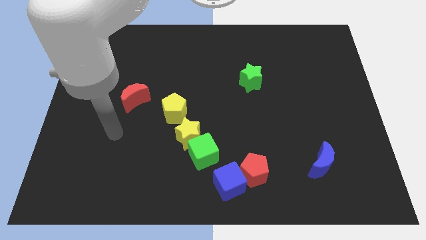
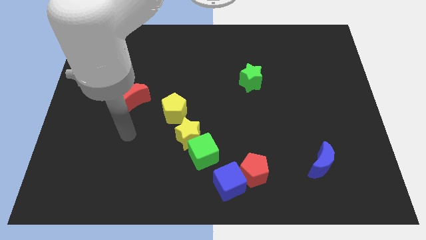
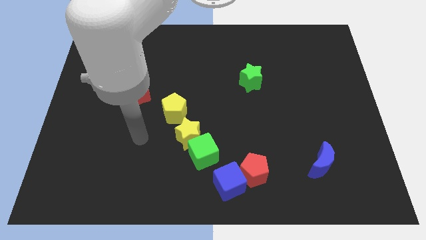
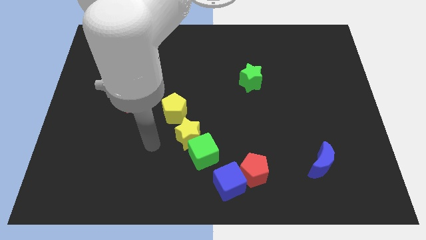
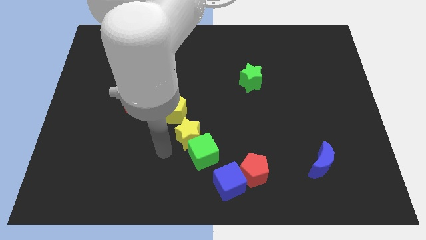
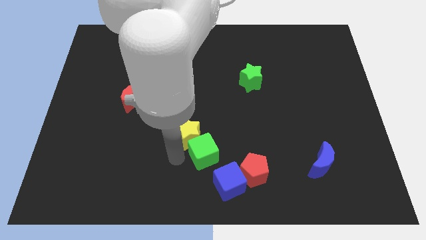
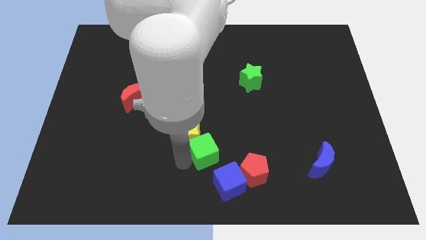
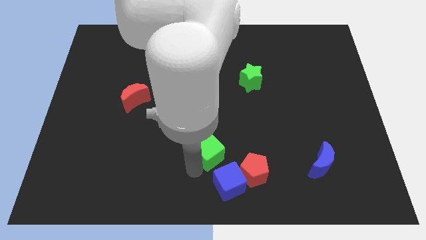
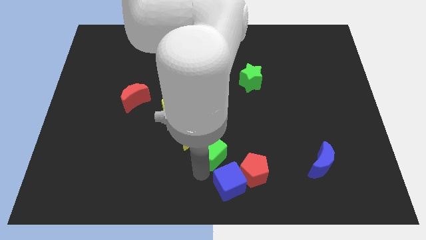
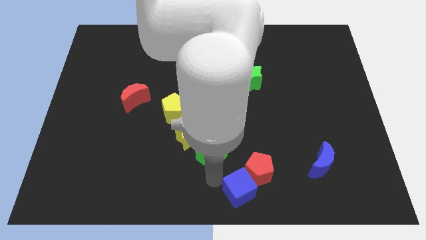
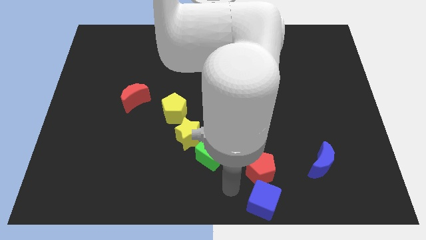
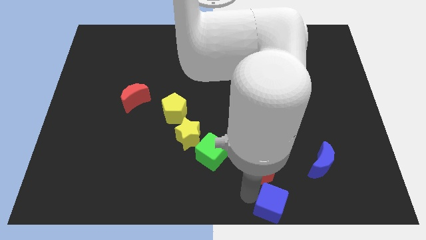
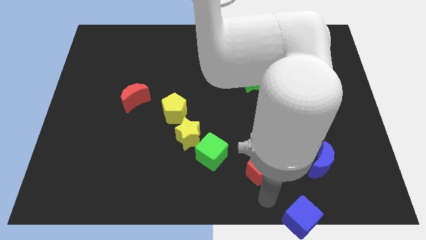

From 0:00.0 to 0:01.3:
pull the red pentagon apart from the blue cube

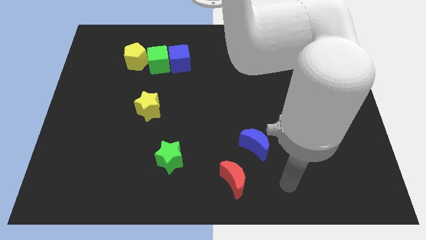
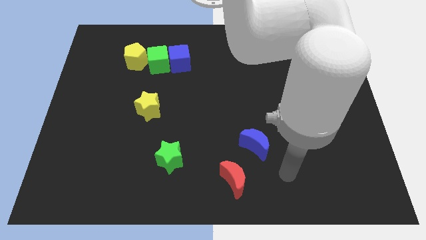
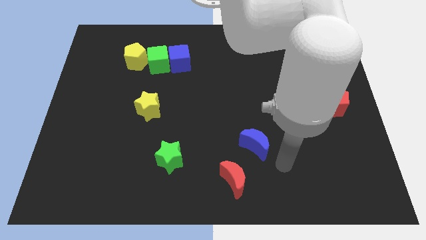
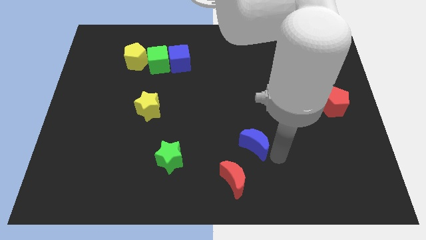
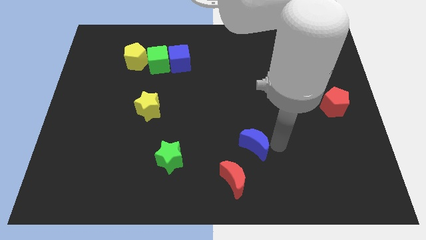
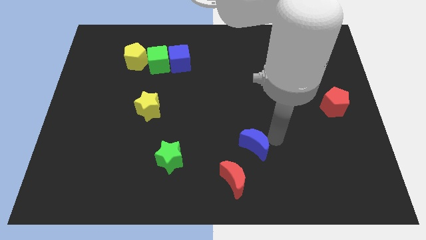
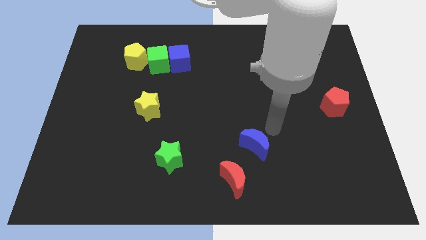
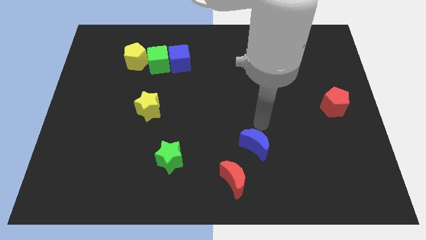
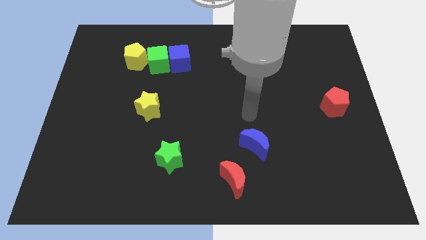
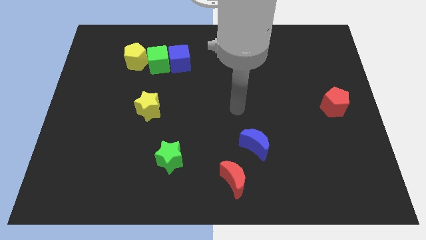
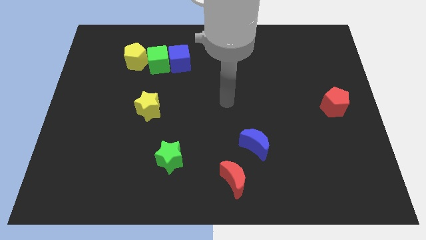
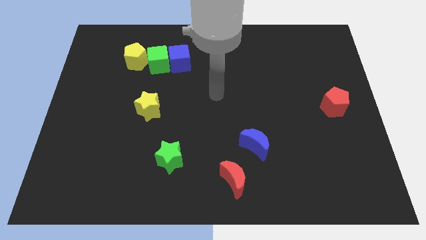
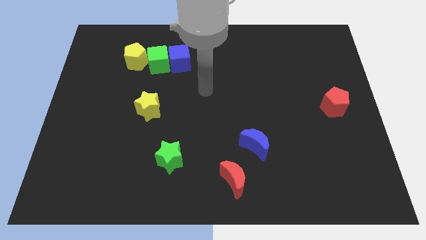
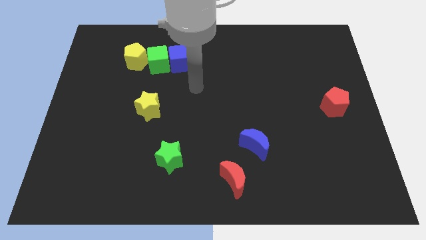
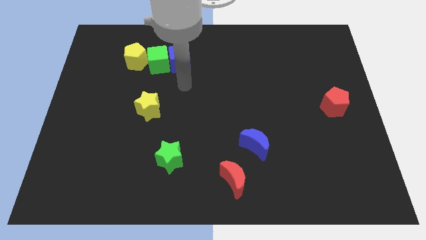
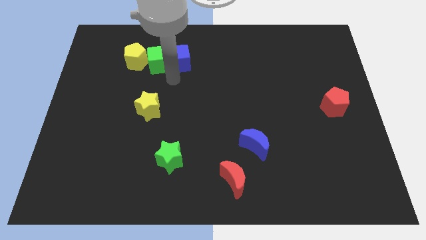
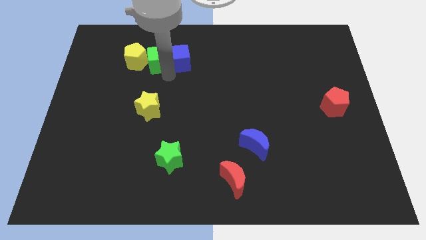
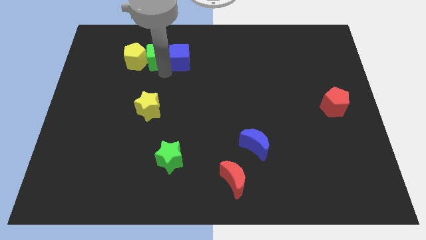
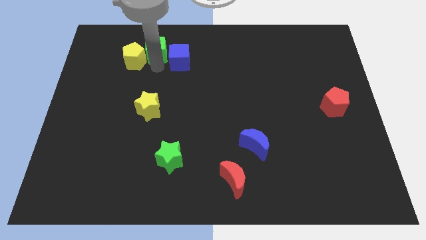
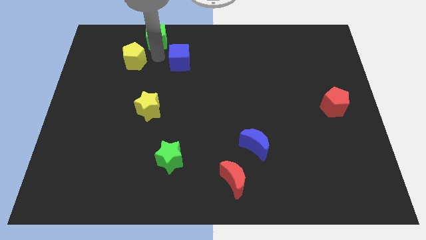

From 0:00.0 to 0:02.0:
move the blue cube away from the green cube

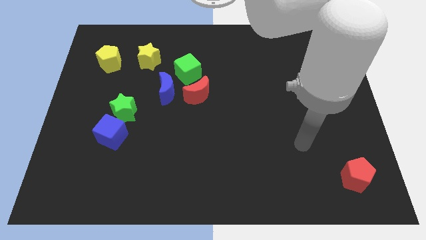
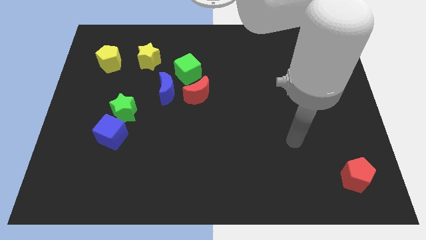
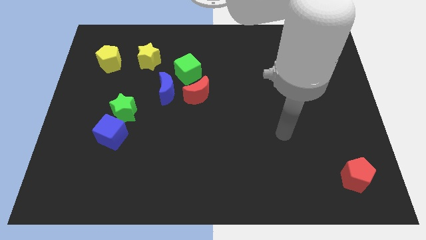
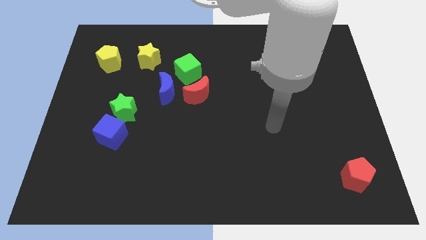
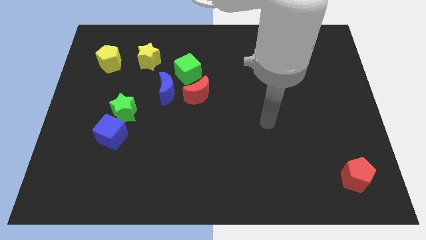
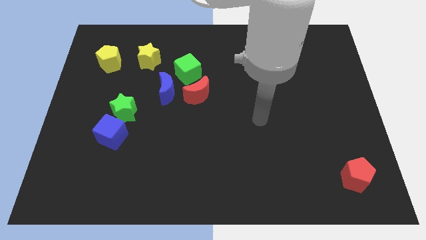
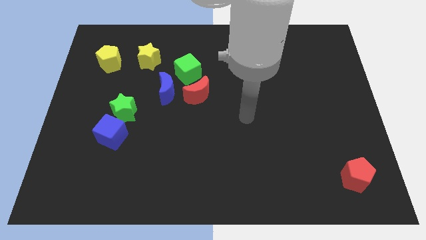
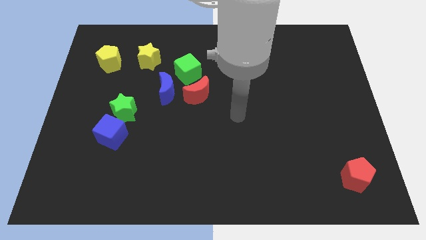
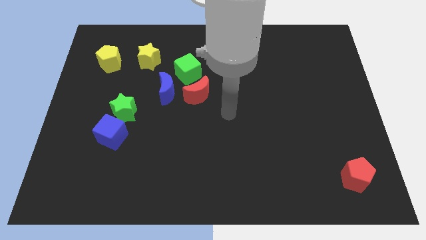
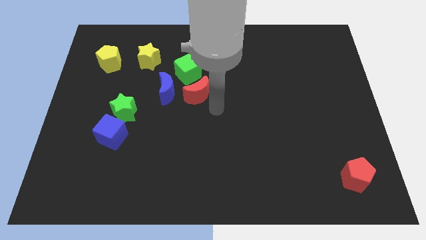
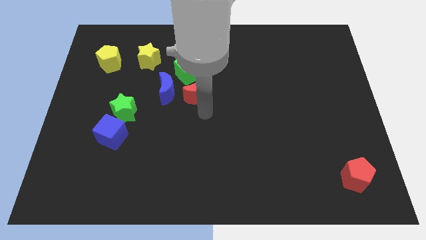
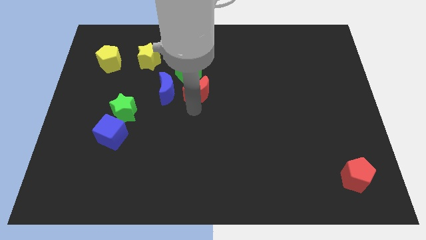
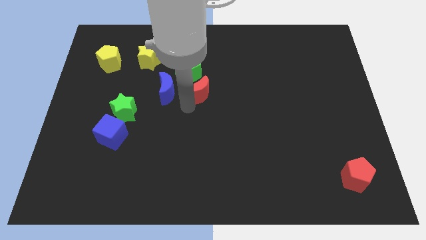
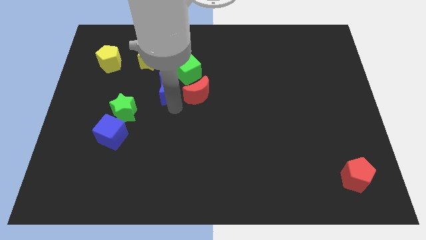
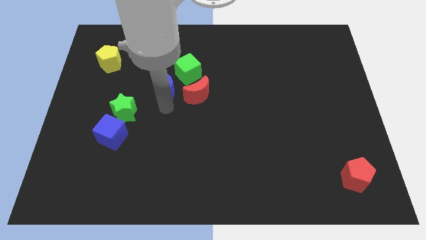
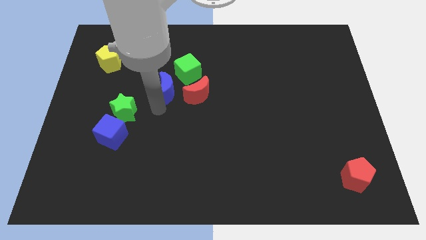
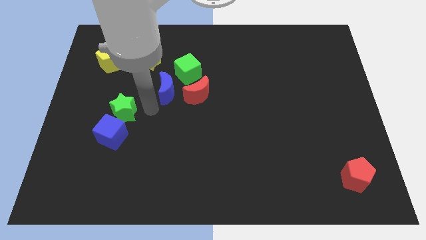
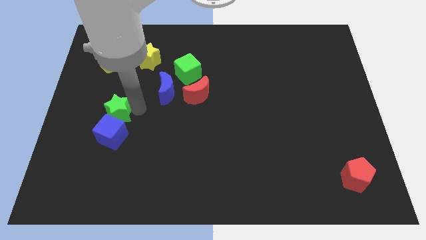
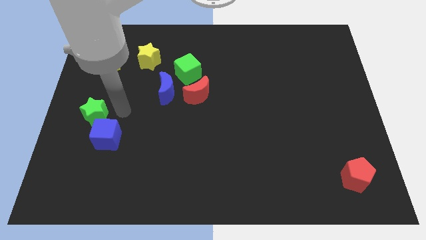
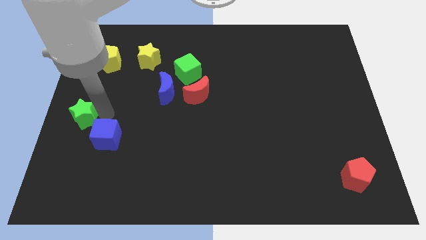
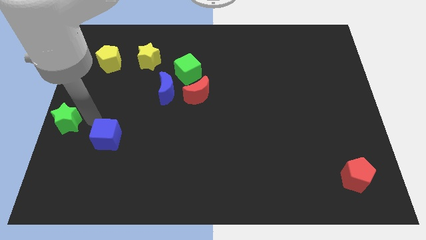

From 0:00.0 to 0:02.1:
pull the blue cube apart from the green star

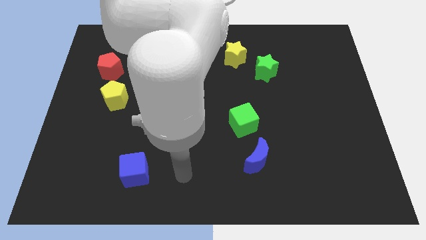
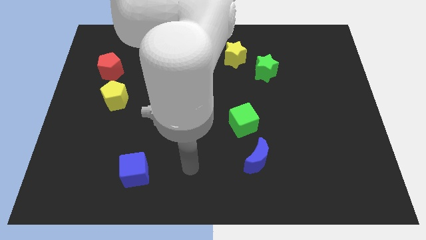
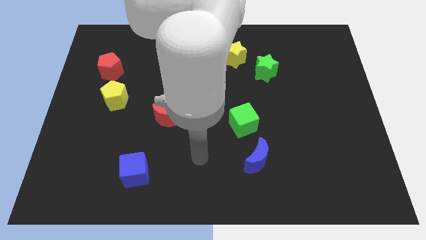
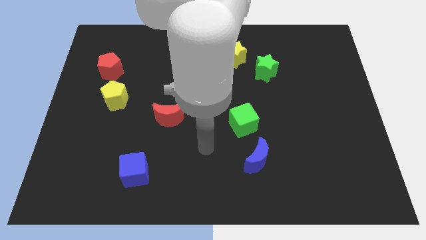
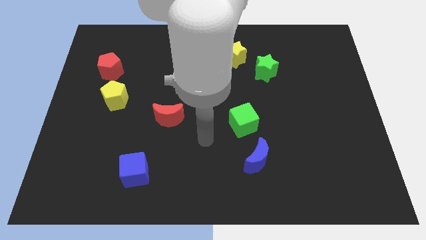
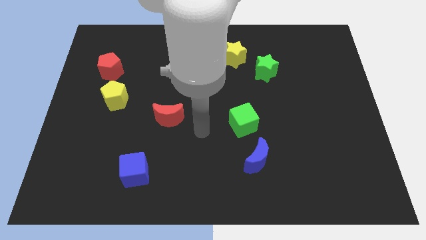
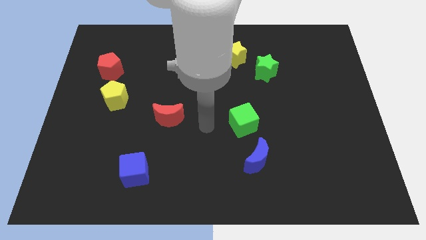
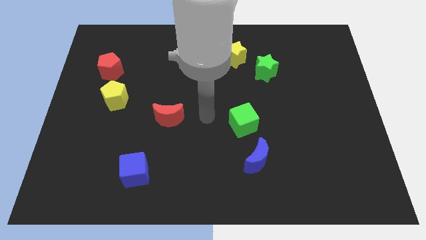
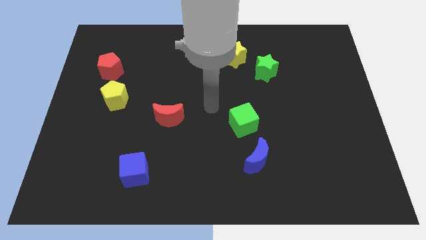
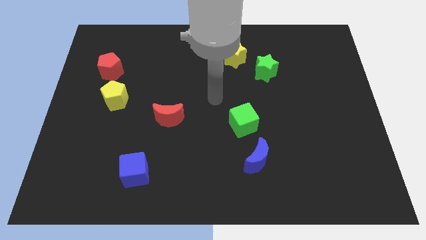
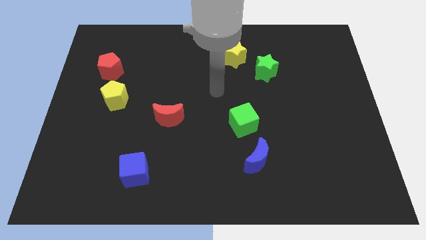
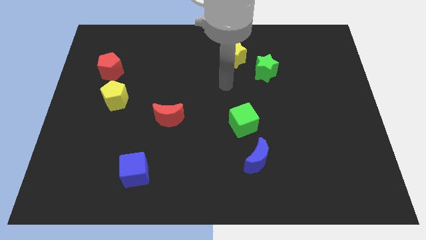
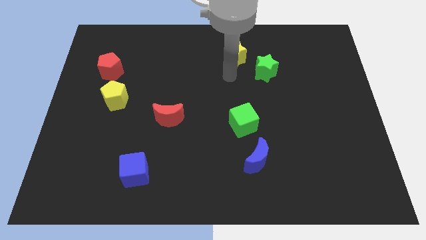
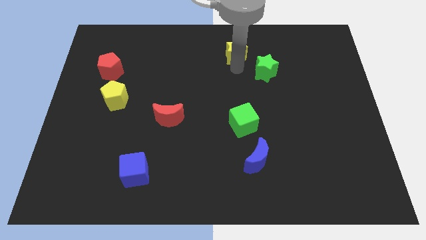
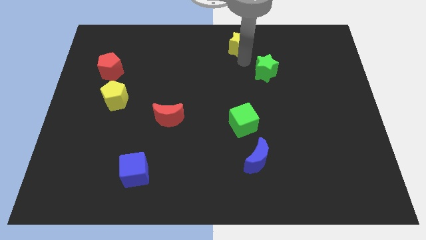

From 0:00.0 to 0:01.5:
move the green star away from the yellow star

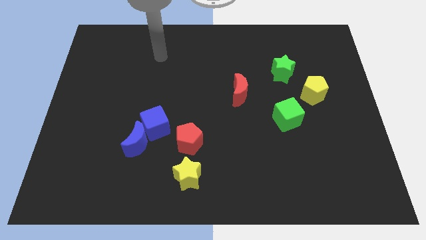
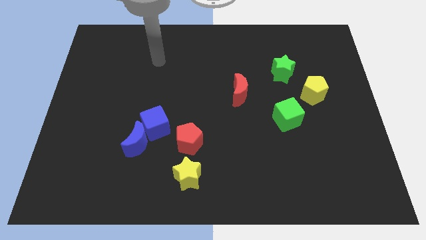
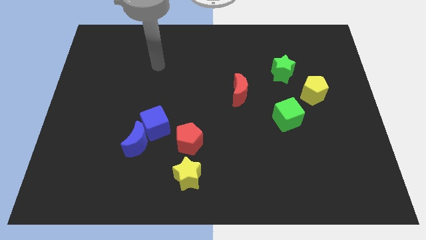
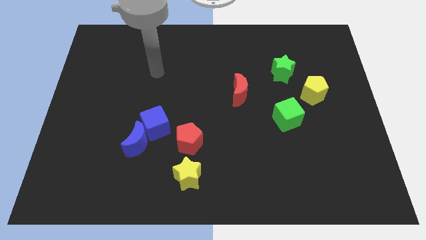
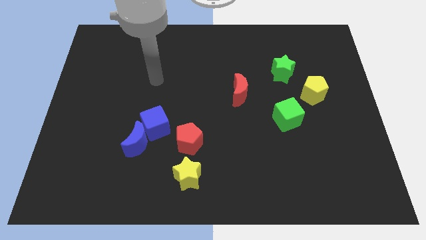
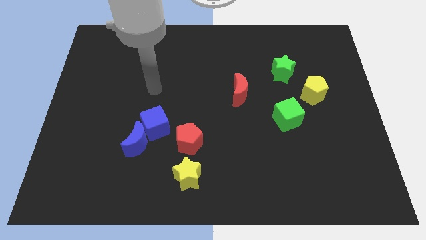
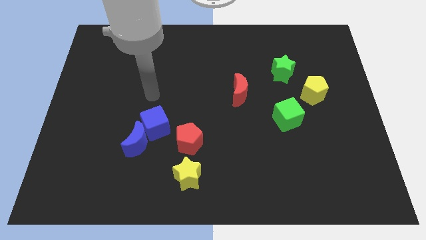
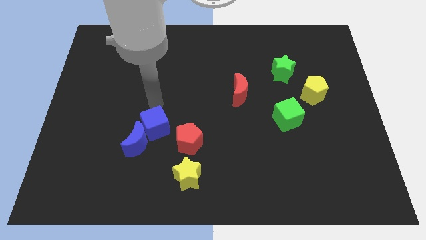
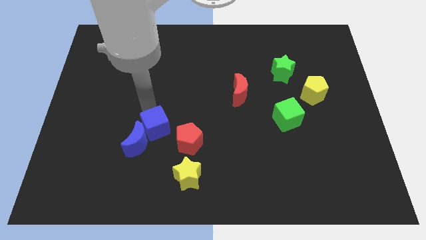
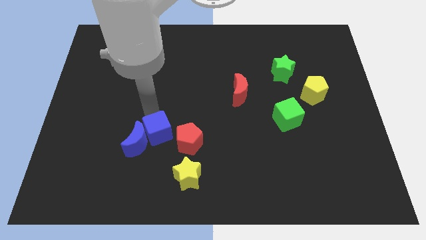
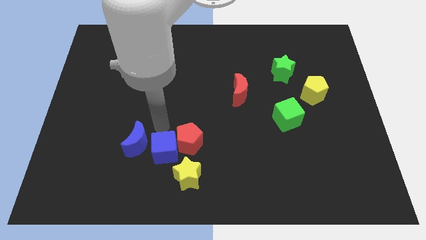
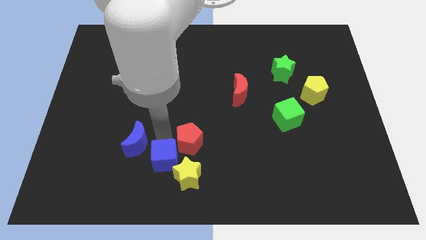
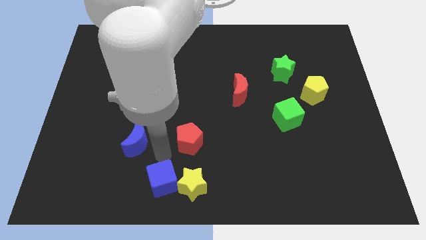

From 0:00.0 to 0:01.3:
pull the blue moon apart from the blue cube

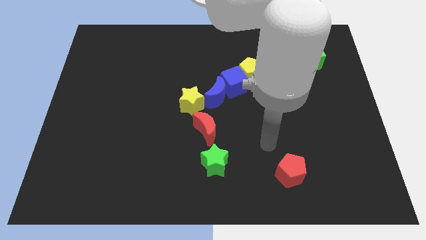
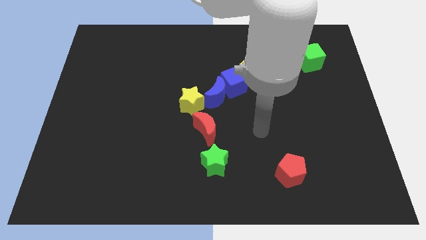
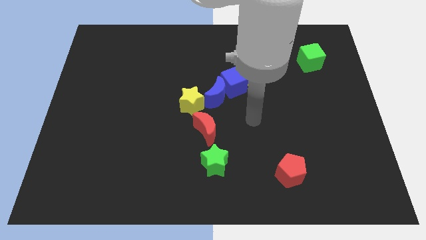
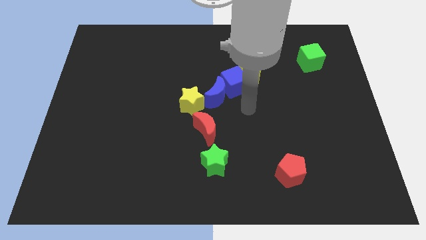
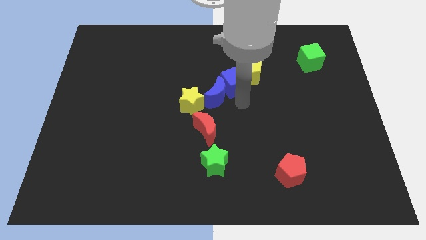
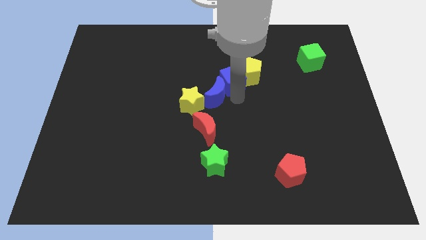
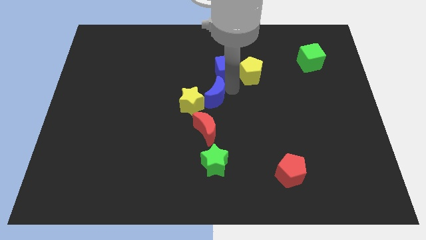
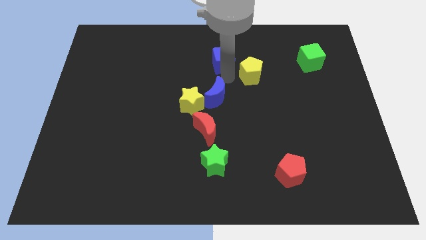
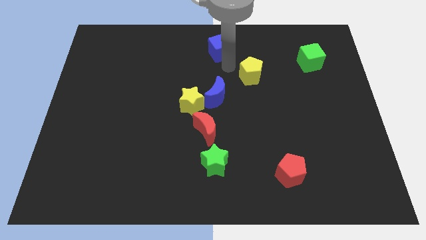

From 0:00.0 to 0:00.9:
pull the yellow pentagon apart from the blue cube
